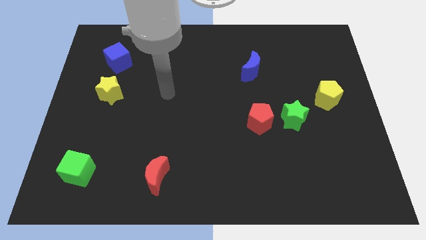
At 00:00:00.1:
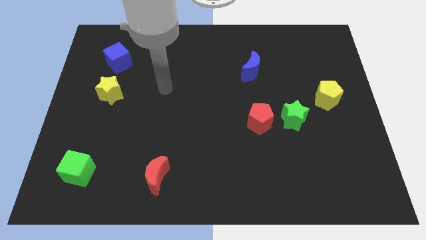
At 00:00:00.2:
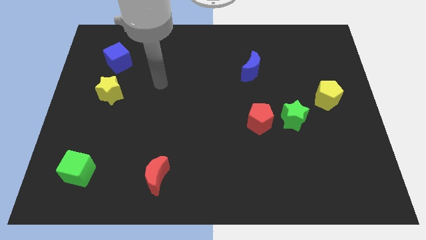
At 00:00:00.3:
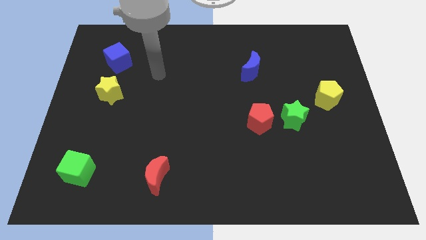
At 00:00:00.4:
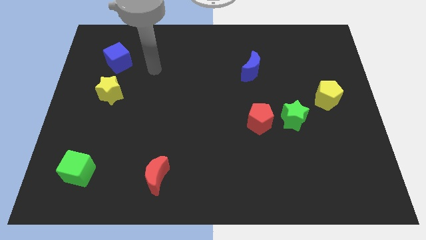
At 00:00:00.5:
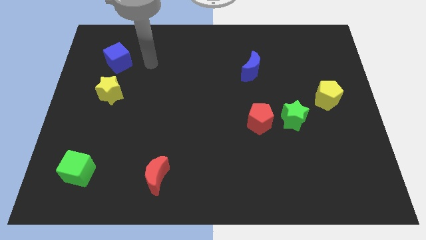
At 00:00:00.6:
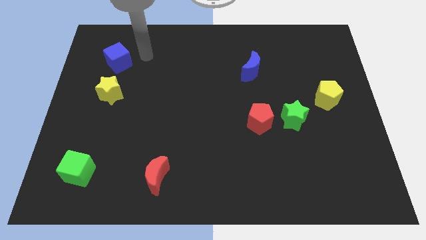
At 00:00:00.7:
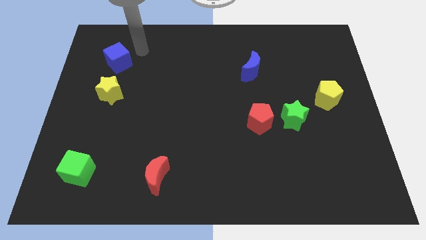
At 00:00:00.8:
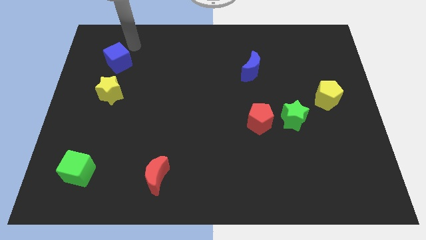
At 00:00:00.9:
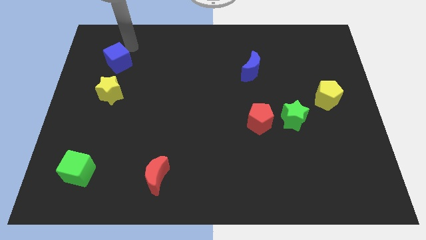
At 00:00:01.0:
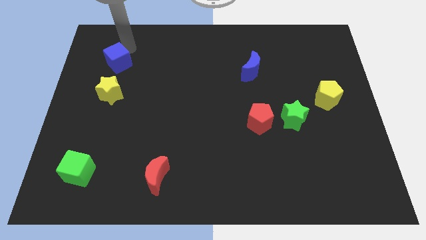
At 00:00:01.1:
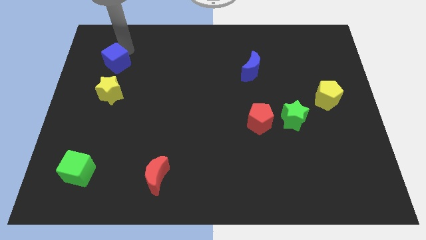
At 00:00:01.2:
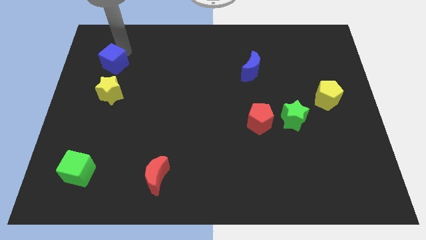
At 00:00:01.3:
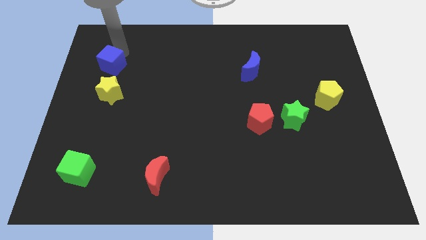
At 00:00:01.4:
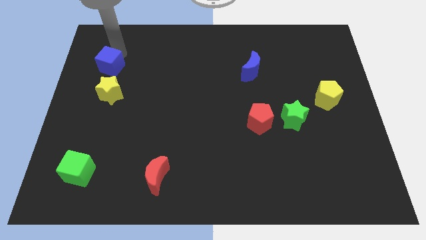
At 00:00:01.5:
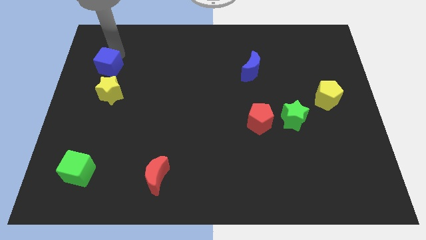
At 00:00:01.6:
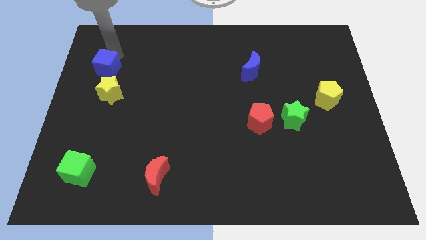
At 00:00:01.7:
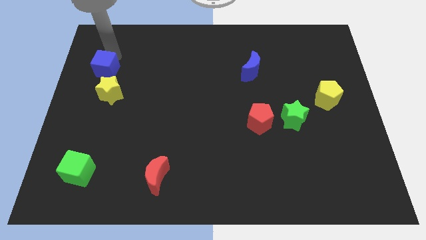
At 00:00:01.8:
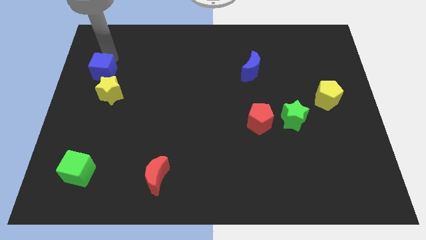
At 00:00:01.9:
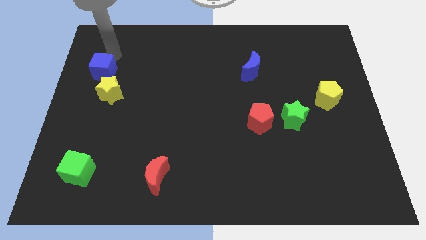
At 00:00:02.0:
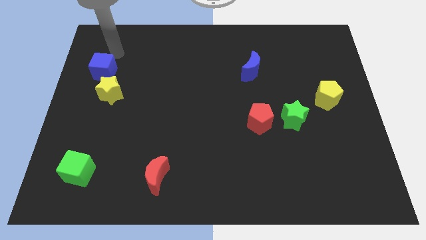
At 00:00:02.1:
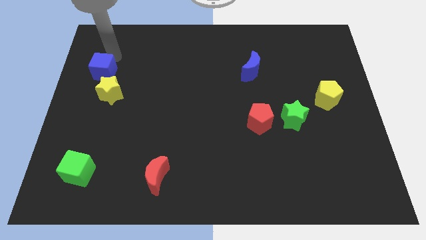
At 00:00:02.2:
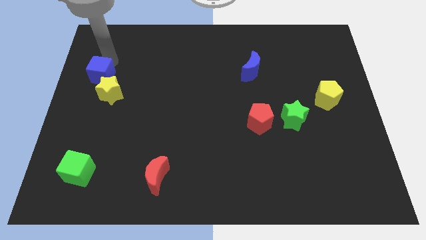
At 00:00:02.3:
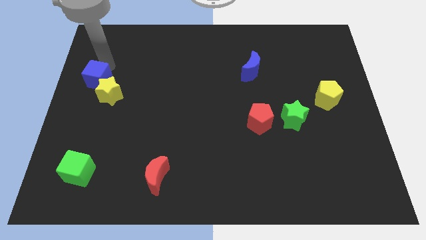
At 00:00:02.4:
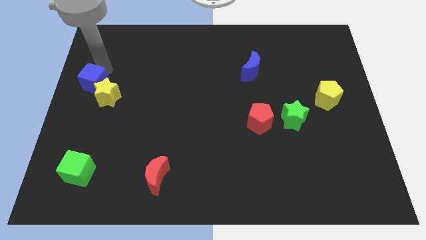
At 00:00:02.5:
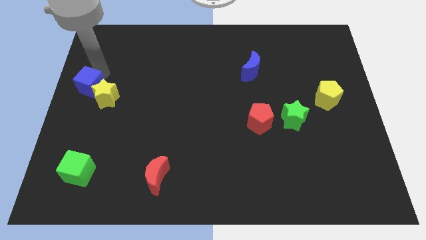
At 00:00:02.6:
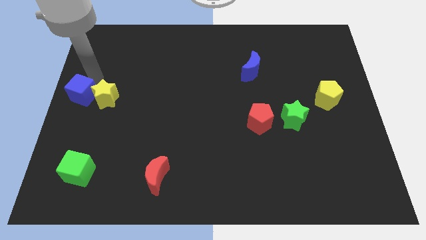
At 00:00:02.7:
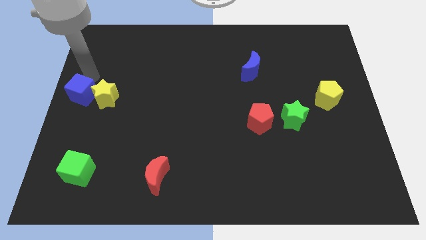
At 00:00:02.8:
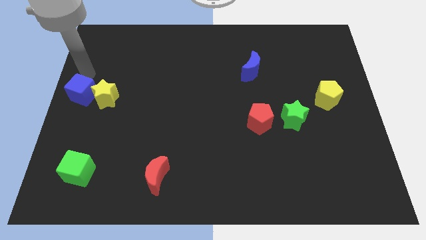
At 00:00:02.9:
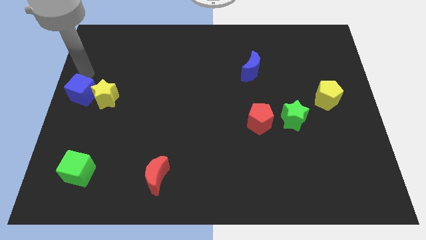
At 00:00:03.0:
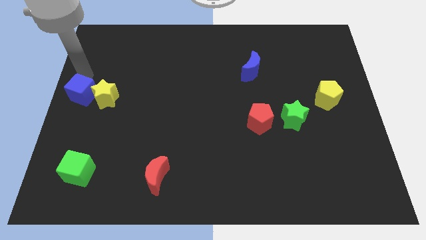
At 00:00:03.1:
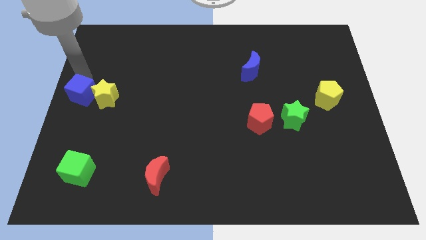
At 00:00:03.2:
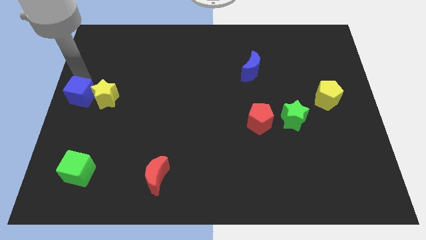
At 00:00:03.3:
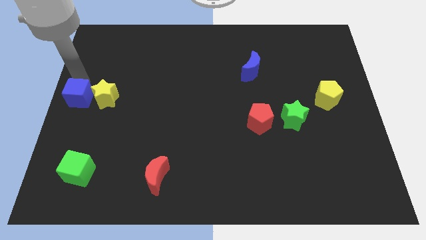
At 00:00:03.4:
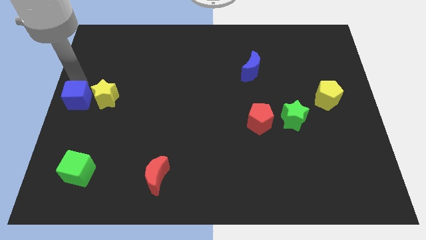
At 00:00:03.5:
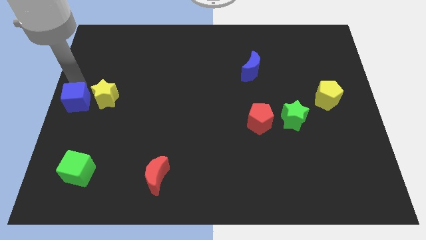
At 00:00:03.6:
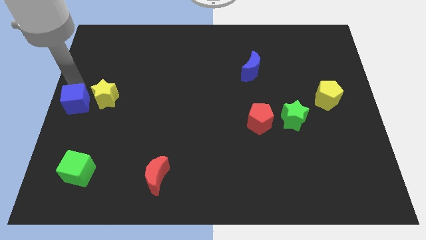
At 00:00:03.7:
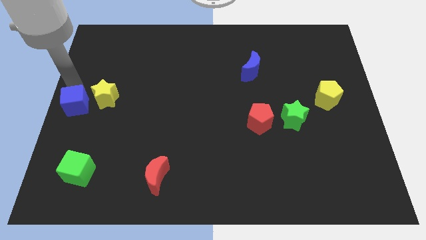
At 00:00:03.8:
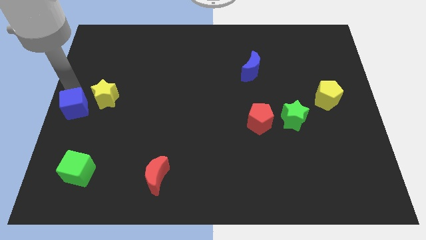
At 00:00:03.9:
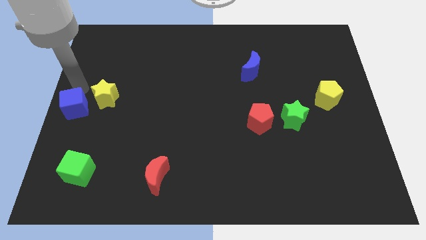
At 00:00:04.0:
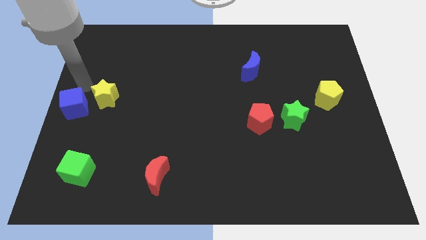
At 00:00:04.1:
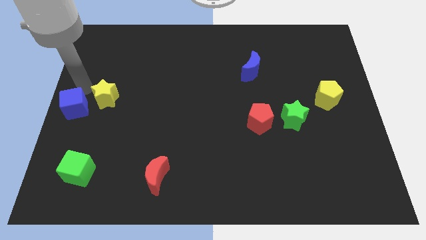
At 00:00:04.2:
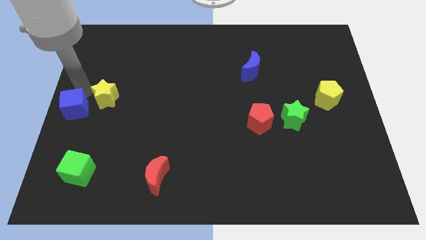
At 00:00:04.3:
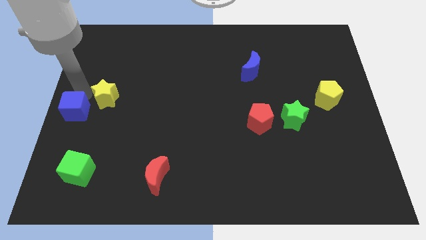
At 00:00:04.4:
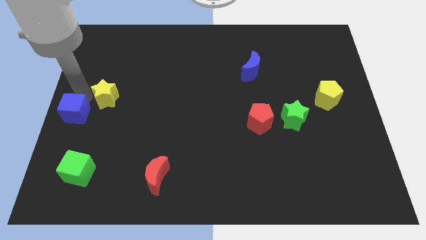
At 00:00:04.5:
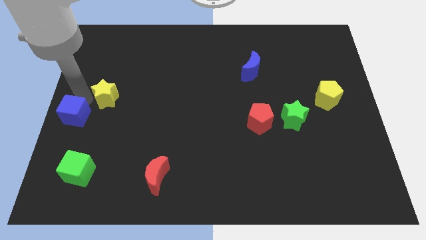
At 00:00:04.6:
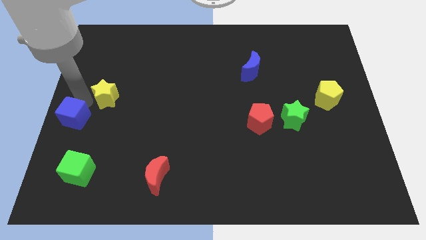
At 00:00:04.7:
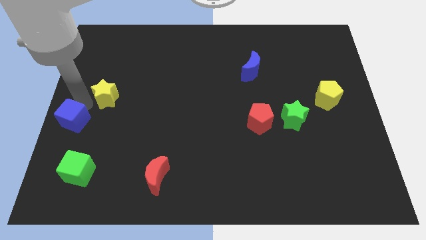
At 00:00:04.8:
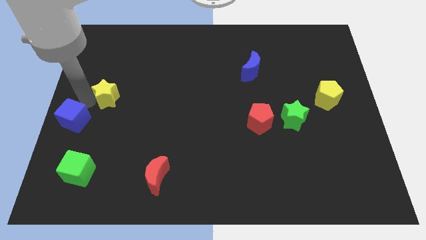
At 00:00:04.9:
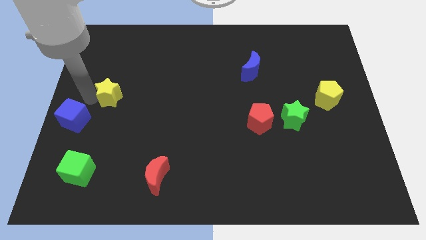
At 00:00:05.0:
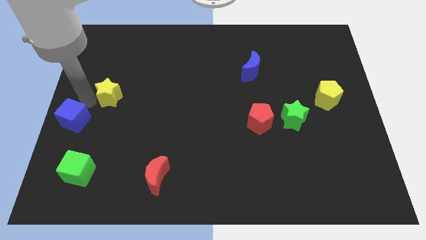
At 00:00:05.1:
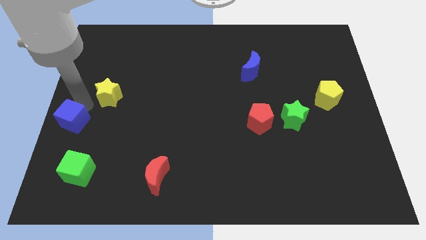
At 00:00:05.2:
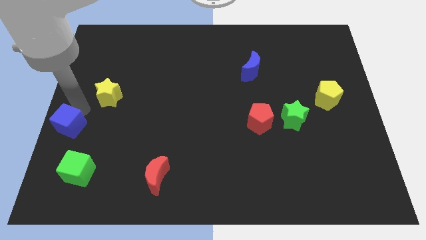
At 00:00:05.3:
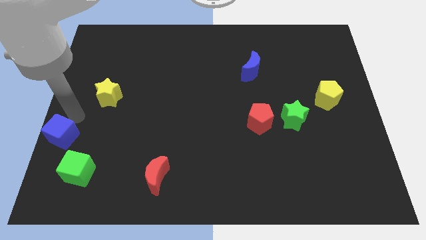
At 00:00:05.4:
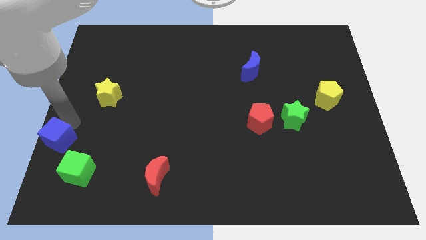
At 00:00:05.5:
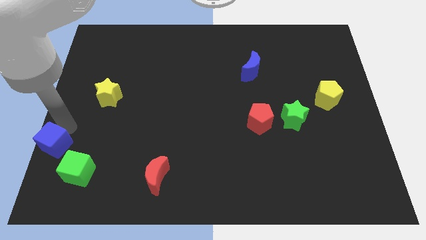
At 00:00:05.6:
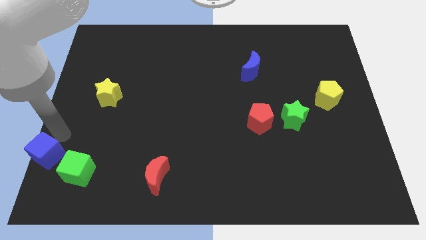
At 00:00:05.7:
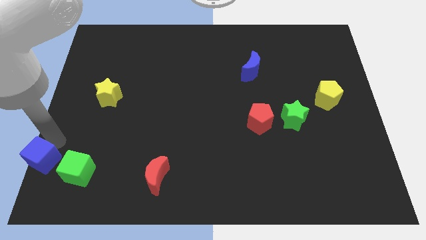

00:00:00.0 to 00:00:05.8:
slide the blue cube to the bottom left
